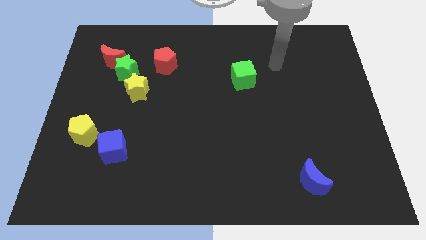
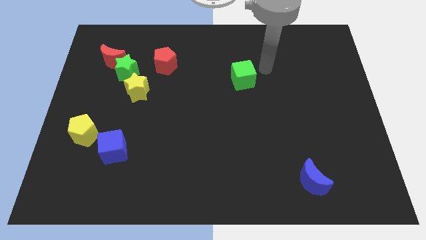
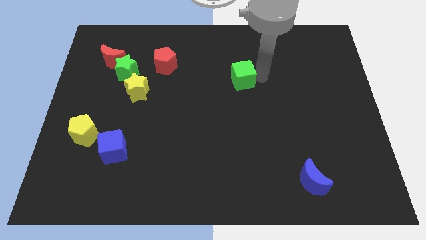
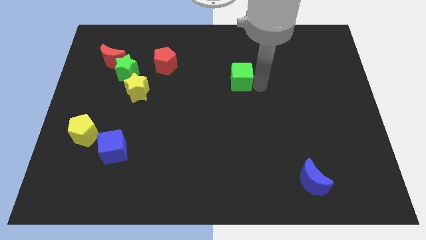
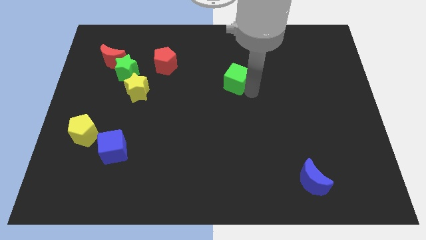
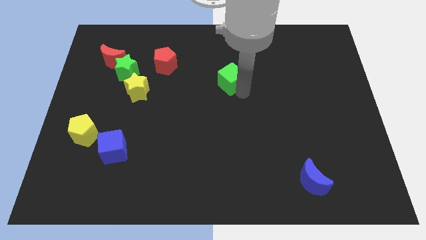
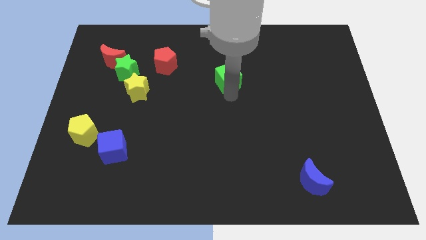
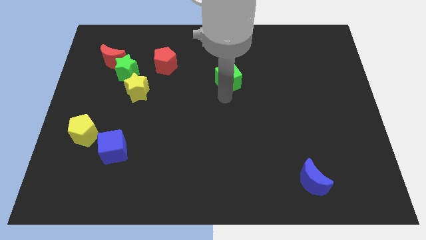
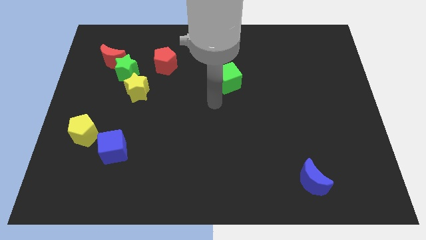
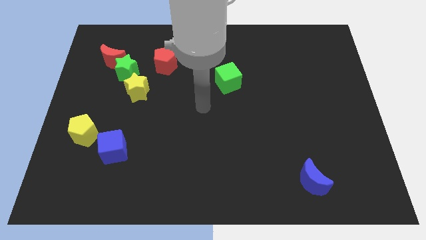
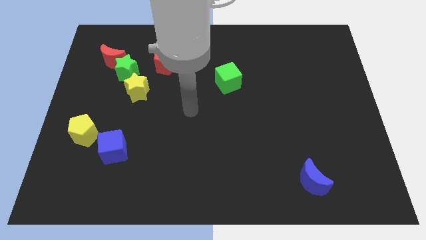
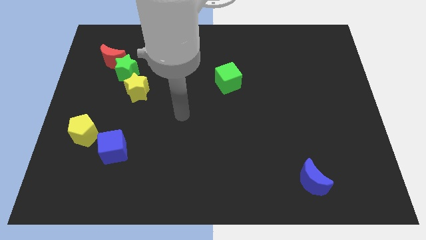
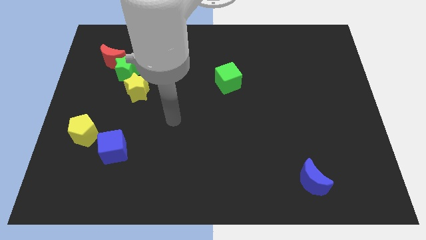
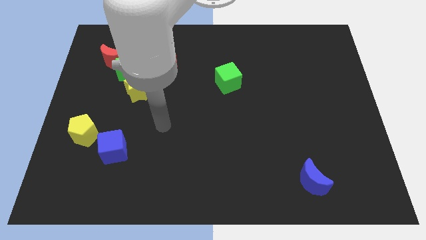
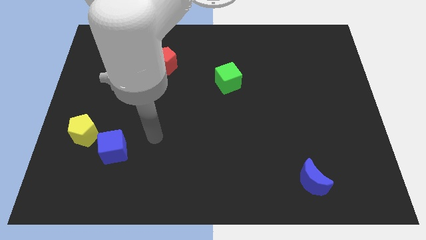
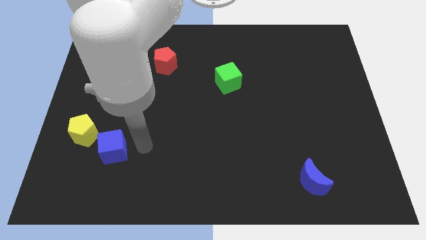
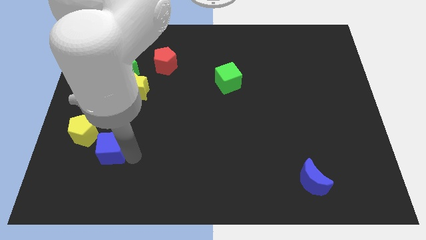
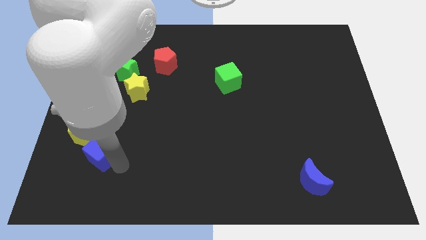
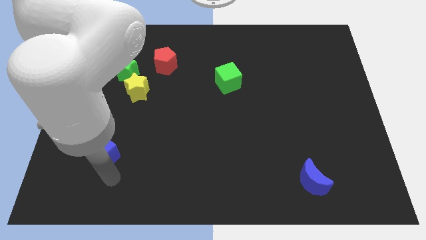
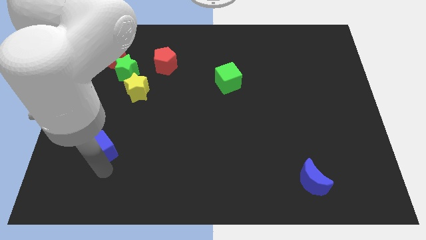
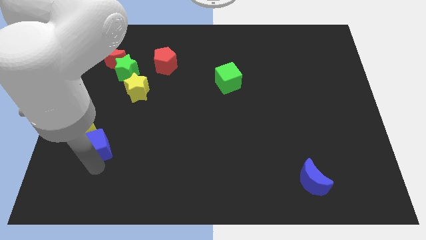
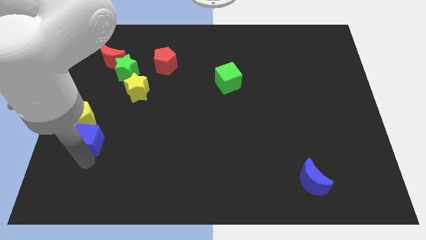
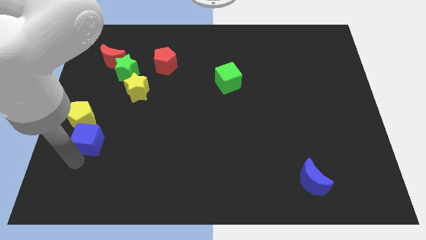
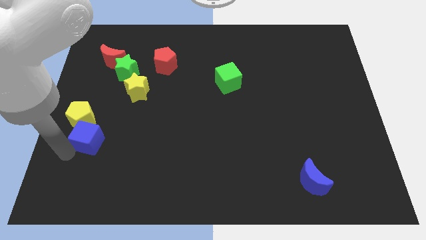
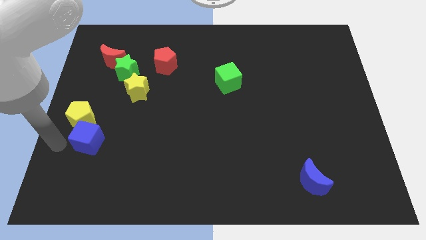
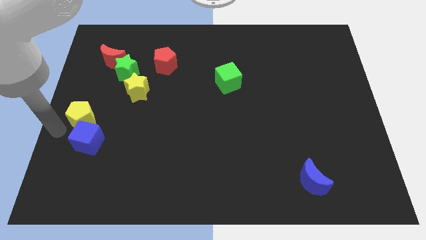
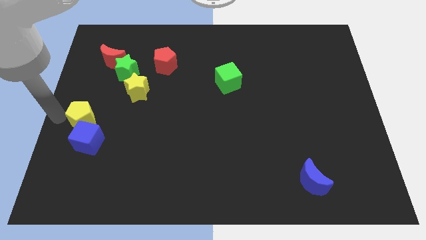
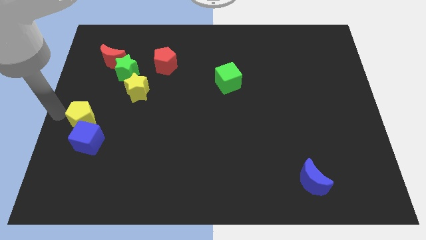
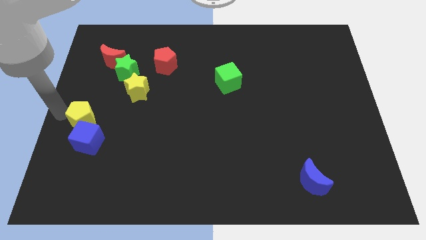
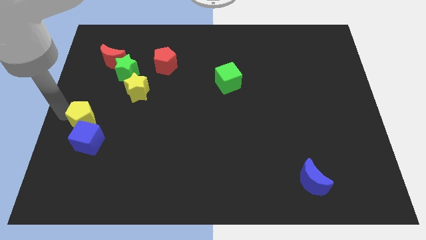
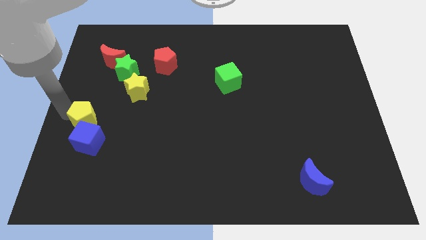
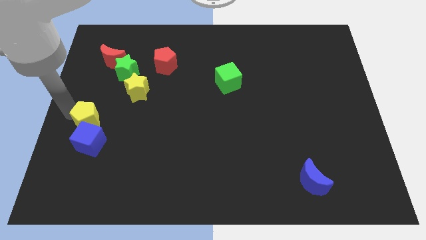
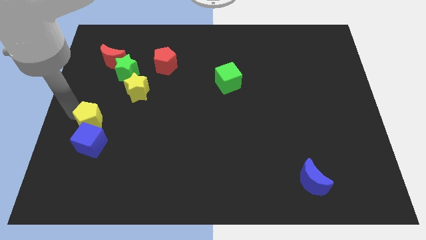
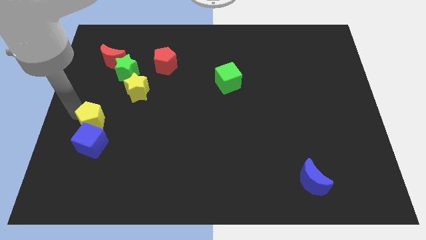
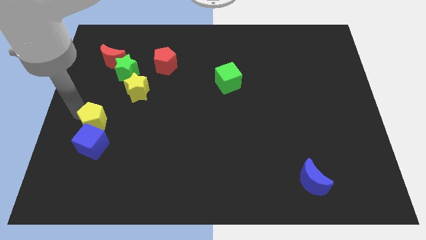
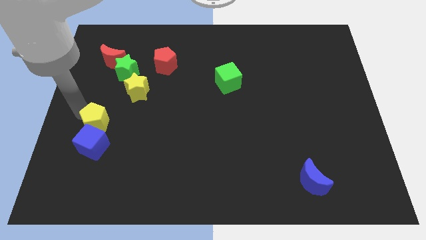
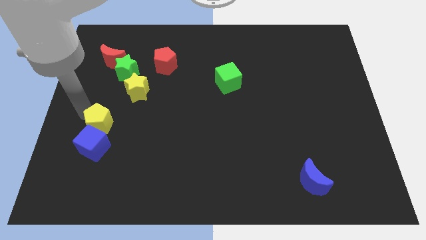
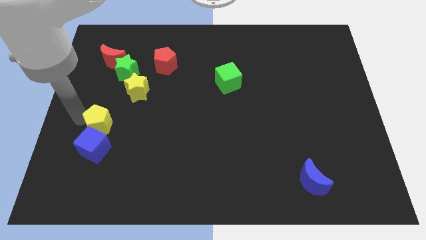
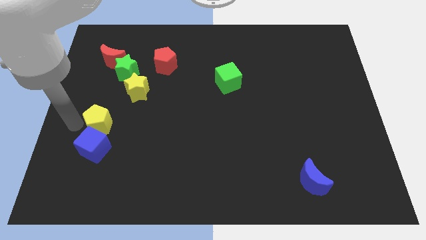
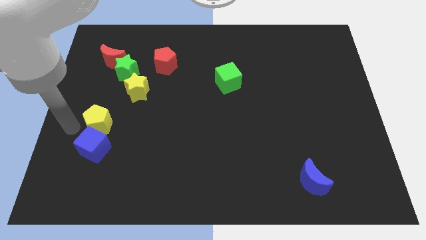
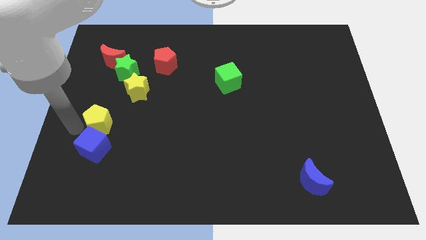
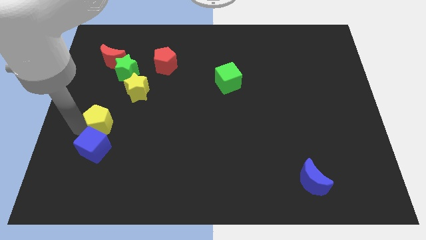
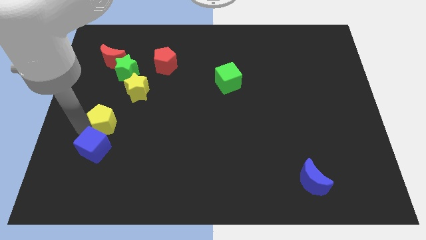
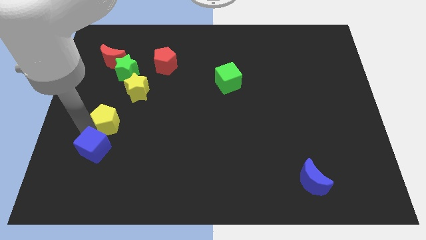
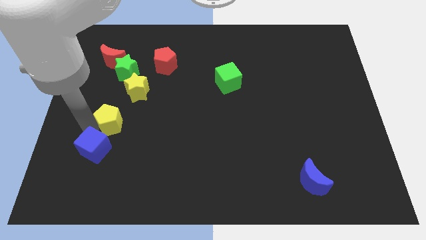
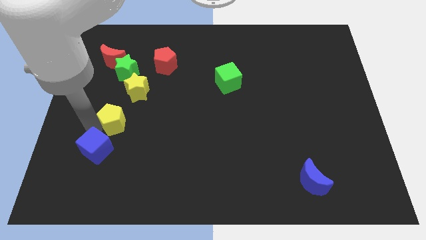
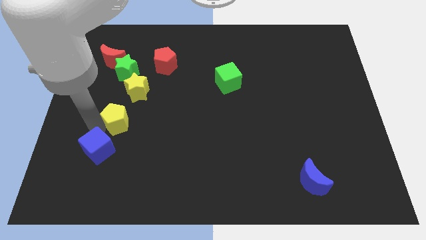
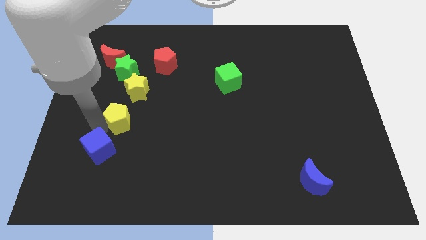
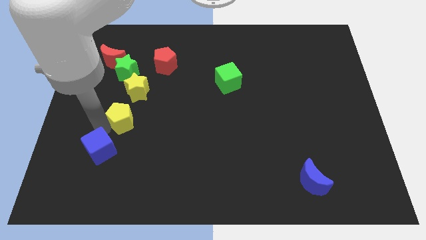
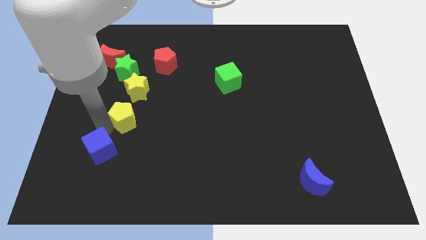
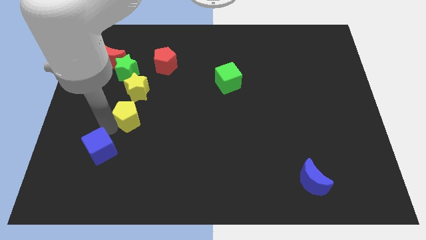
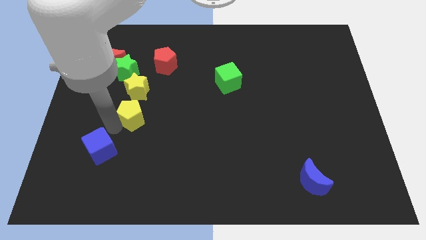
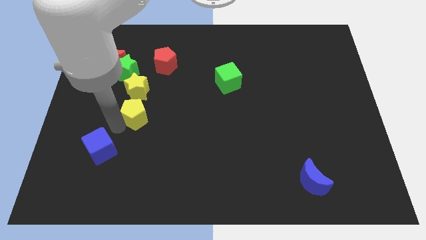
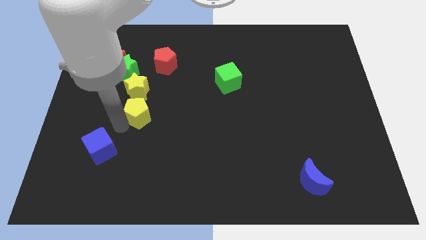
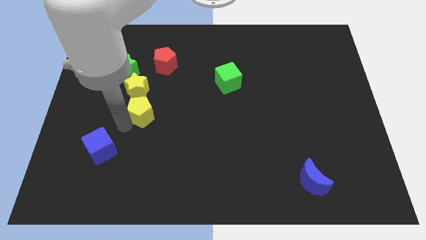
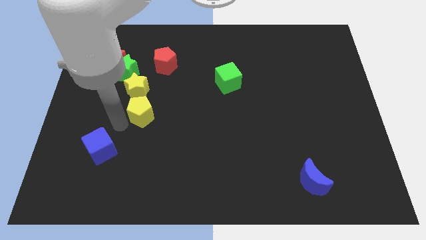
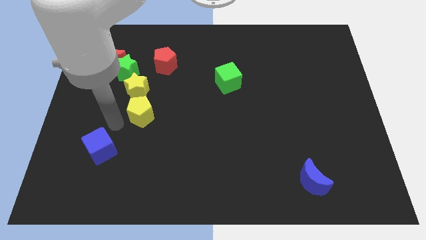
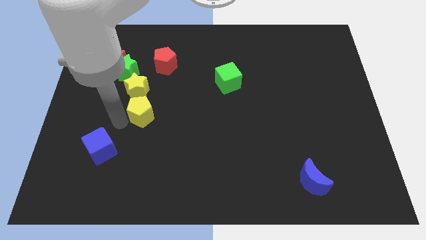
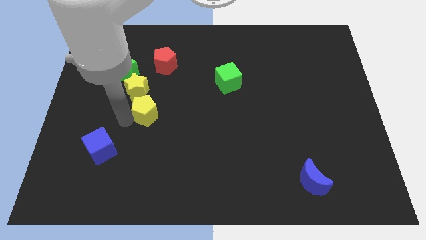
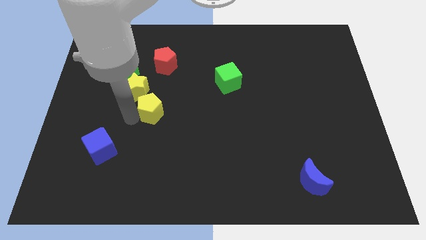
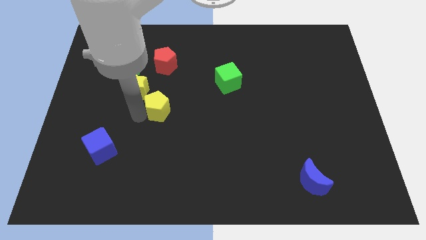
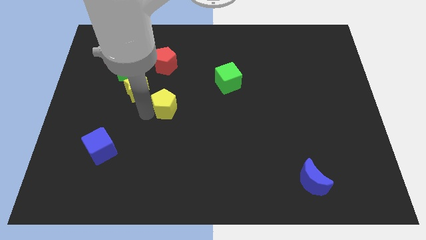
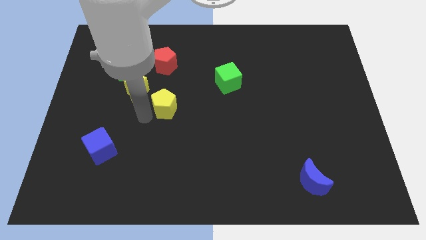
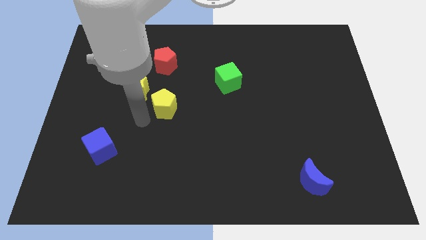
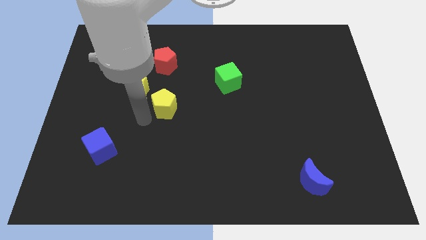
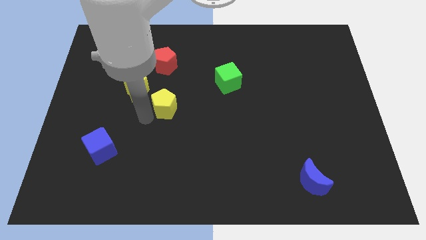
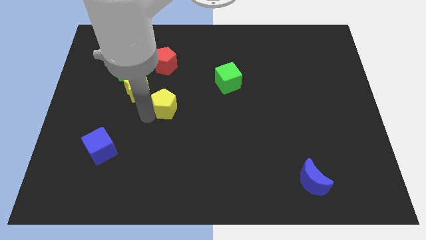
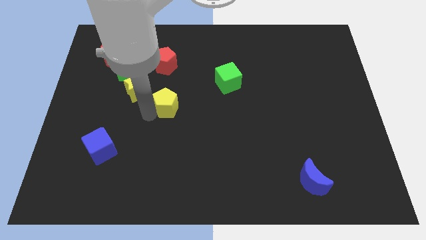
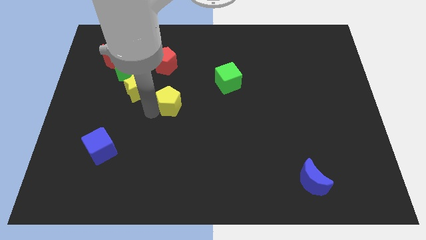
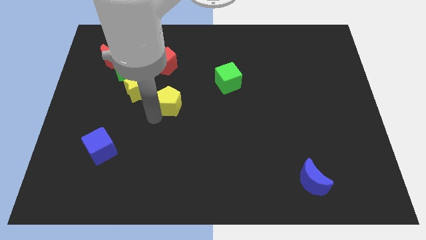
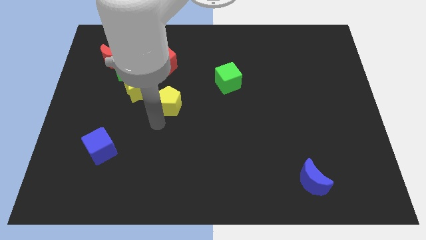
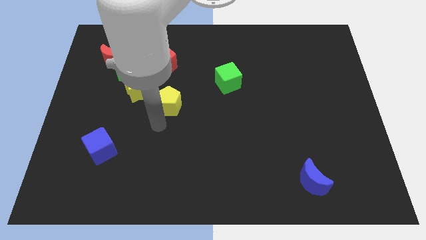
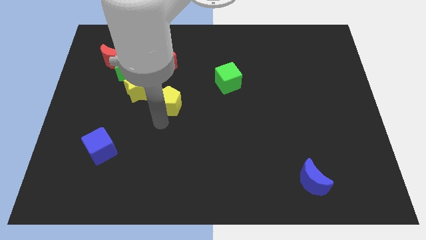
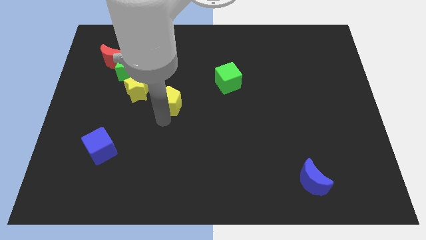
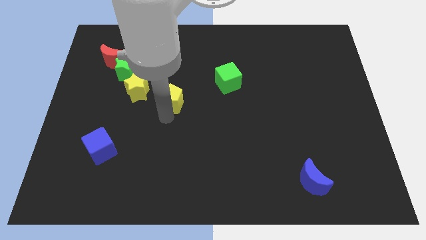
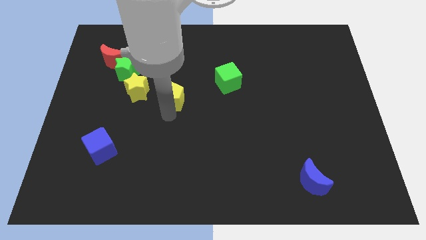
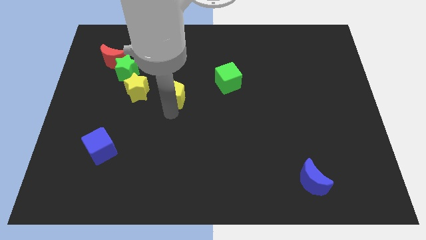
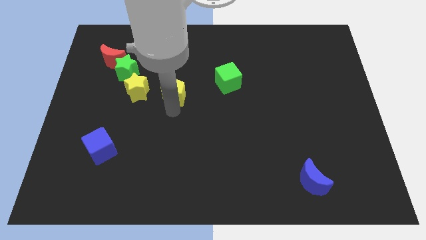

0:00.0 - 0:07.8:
move the yellow pentagon diagonally up and to the right
